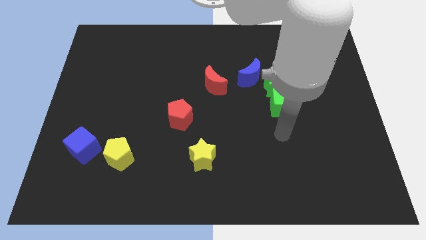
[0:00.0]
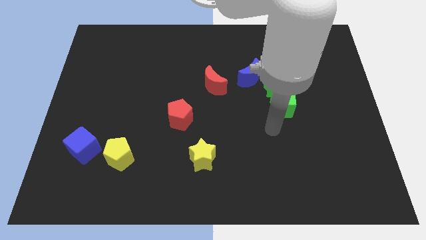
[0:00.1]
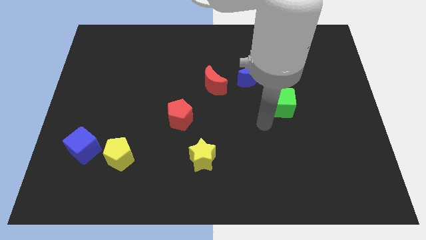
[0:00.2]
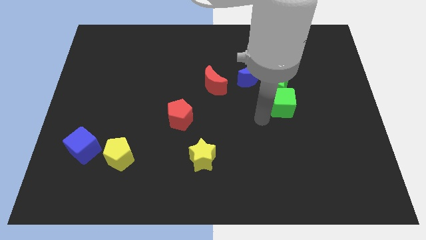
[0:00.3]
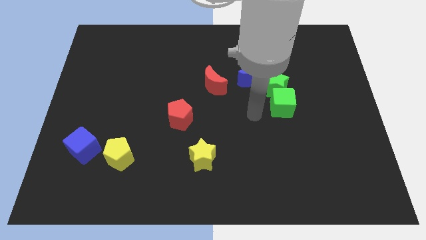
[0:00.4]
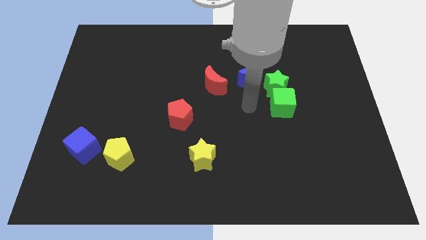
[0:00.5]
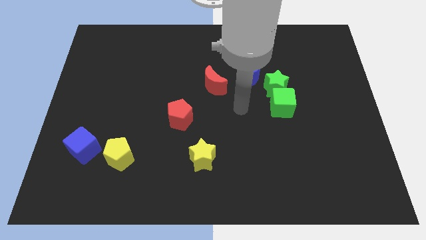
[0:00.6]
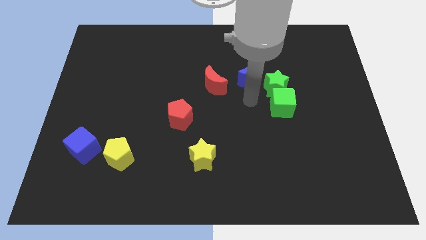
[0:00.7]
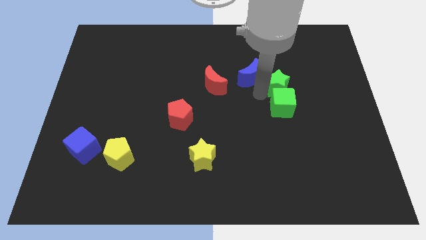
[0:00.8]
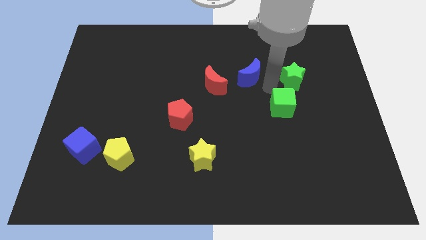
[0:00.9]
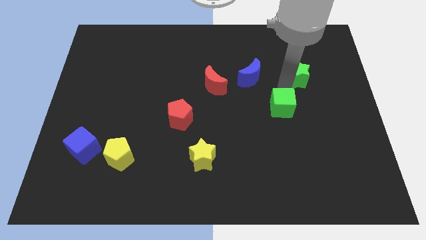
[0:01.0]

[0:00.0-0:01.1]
separate the green cube from the green star

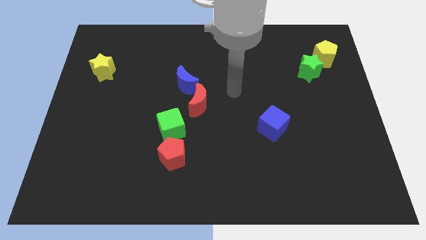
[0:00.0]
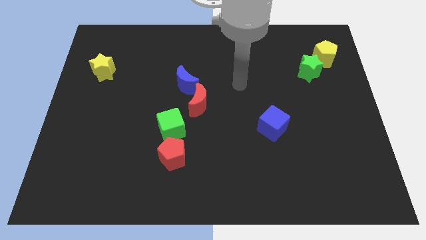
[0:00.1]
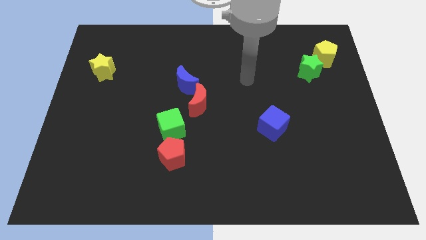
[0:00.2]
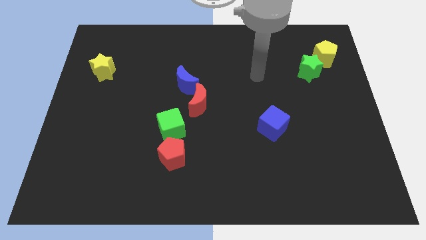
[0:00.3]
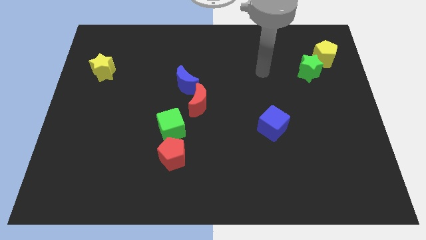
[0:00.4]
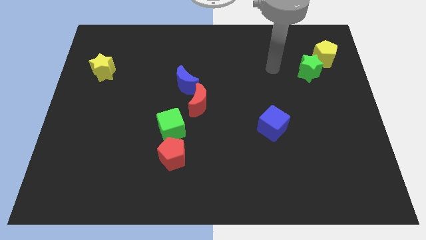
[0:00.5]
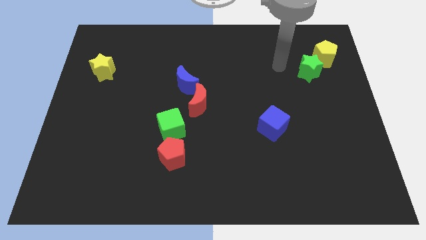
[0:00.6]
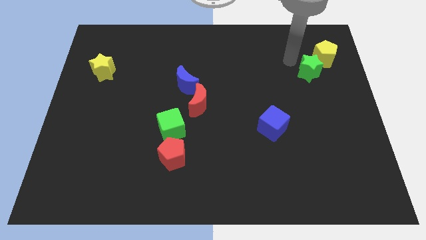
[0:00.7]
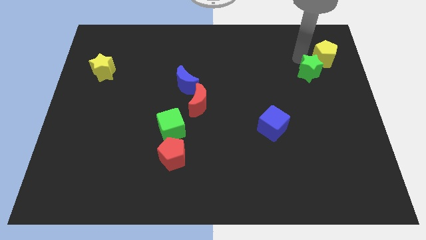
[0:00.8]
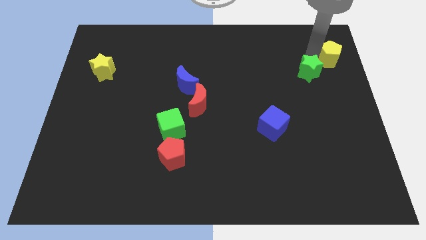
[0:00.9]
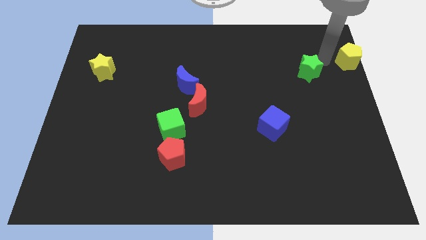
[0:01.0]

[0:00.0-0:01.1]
move the green star away from the yellow pentagon

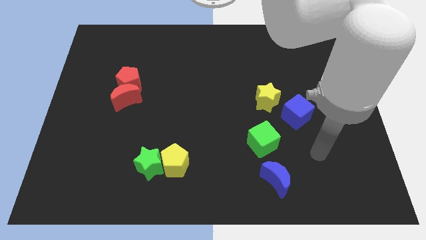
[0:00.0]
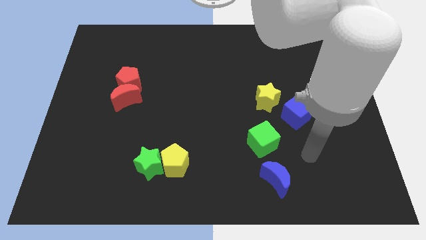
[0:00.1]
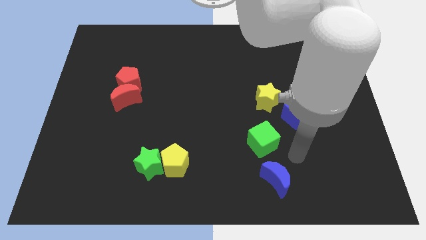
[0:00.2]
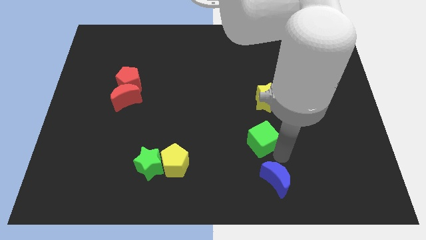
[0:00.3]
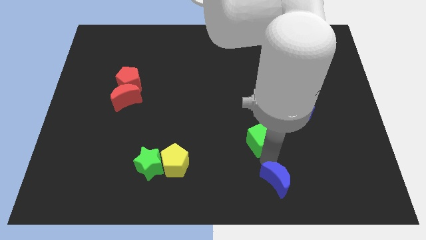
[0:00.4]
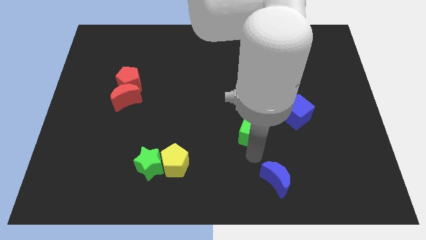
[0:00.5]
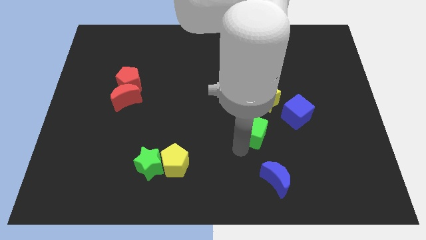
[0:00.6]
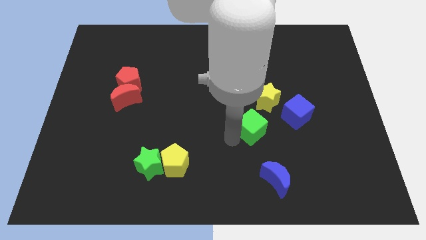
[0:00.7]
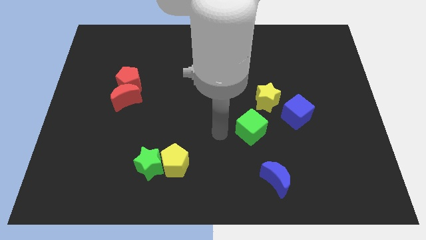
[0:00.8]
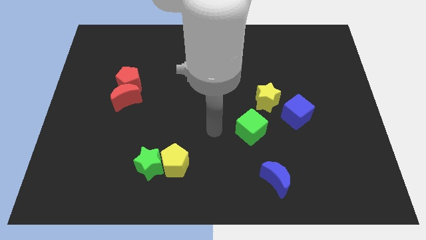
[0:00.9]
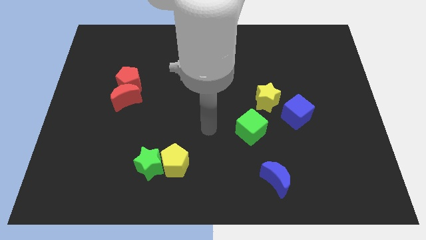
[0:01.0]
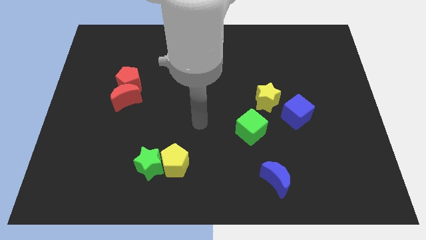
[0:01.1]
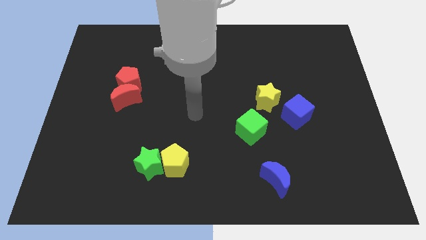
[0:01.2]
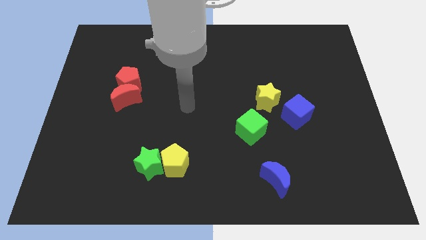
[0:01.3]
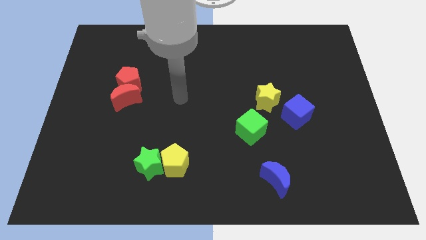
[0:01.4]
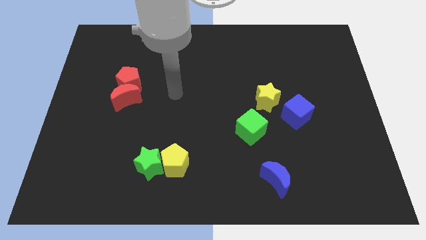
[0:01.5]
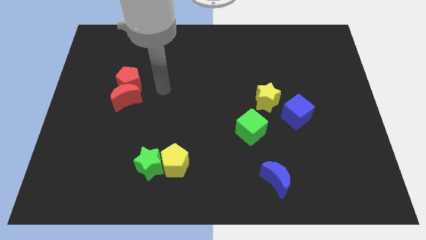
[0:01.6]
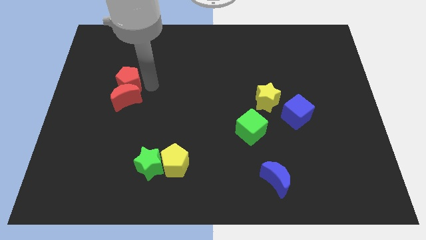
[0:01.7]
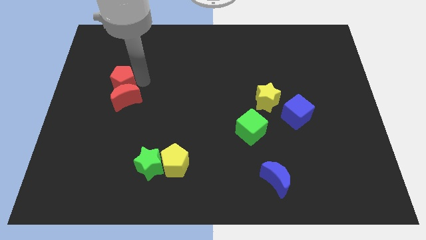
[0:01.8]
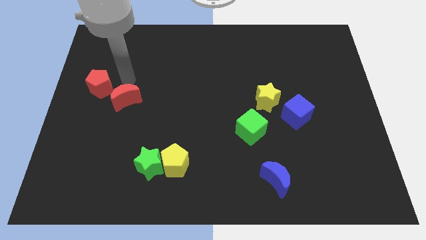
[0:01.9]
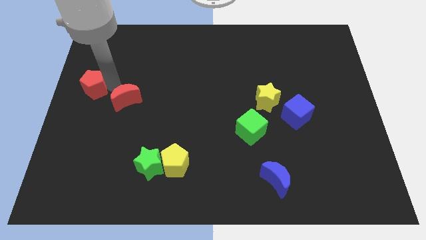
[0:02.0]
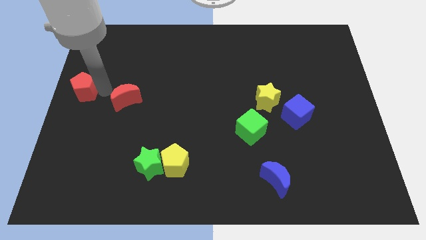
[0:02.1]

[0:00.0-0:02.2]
move the red moon away from the red pentagon

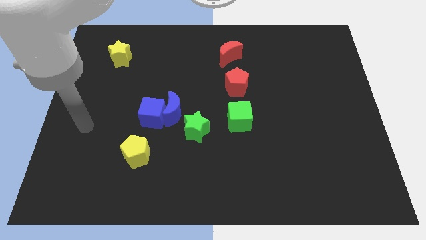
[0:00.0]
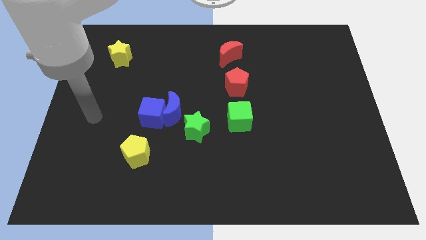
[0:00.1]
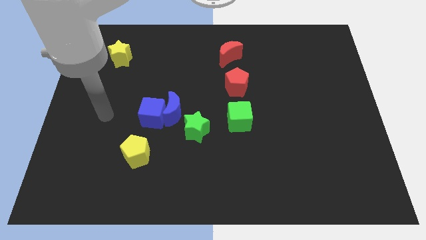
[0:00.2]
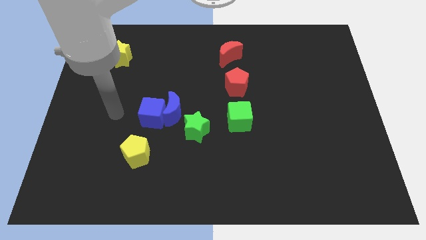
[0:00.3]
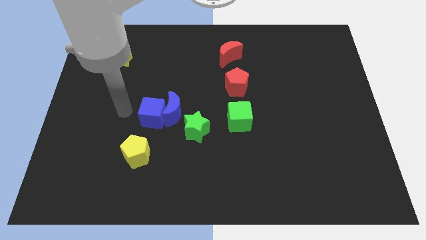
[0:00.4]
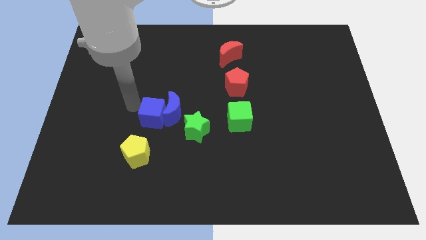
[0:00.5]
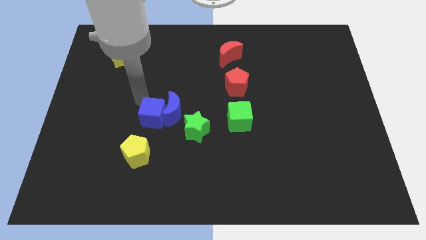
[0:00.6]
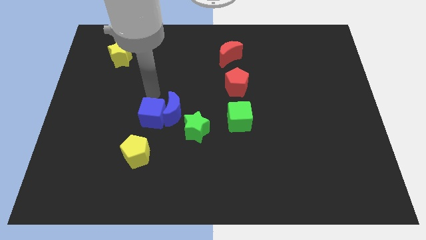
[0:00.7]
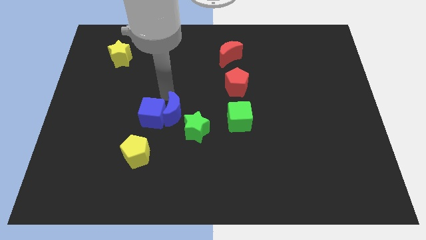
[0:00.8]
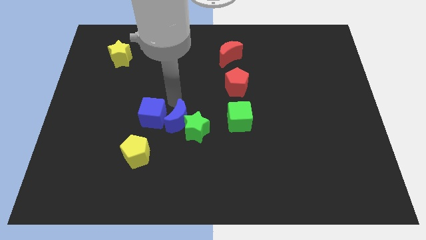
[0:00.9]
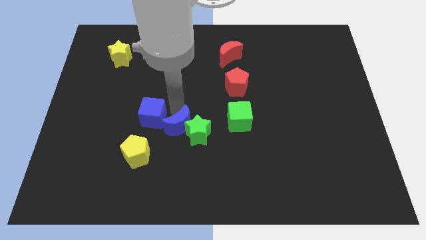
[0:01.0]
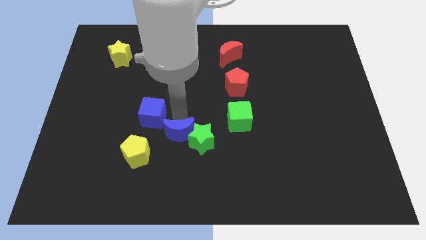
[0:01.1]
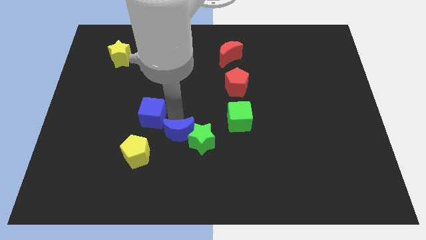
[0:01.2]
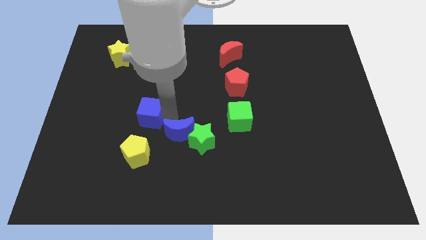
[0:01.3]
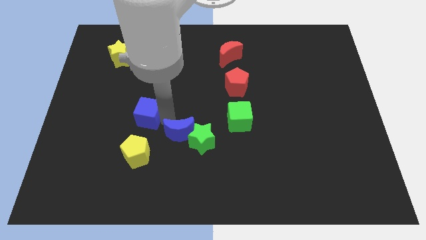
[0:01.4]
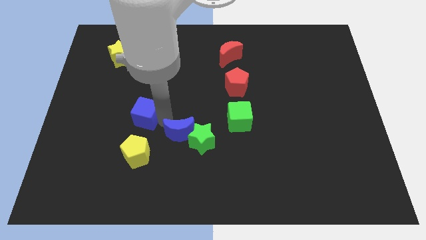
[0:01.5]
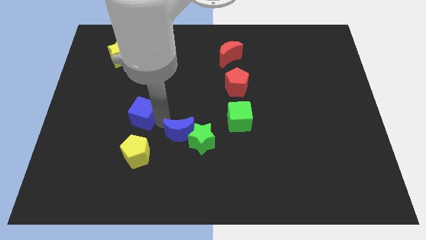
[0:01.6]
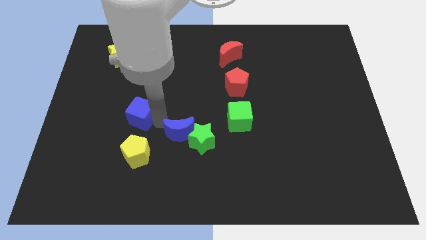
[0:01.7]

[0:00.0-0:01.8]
move the blue cube away from the blue moon

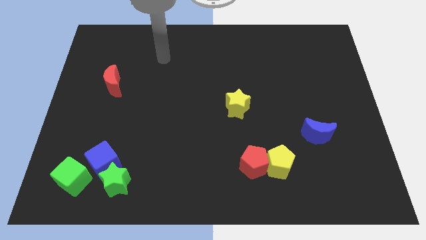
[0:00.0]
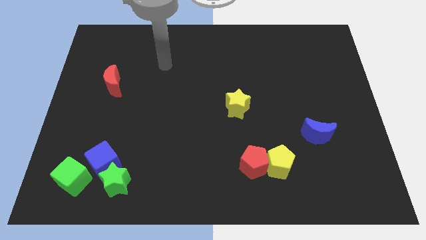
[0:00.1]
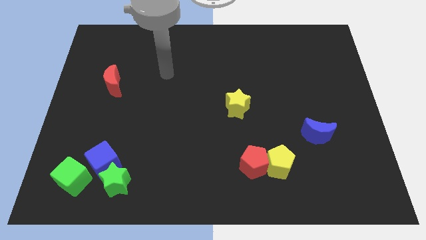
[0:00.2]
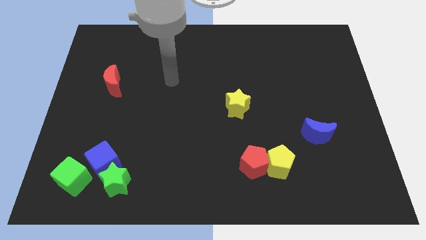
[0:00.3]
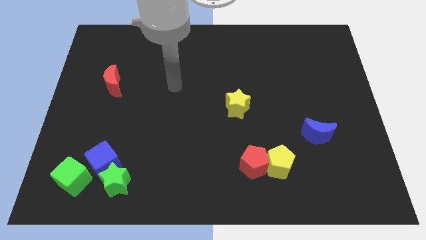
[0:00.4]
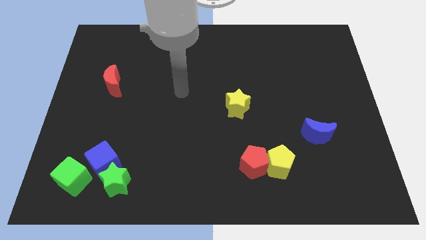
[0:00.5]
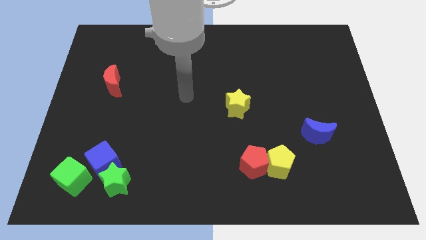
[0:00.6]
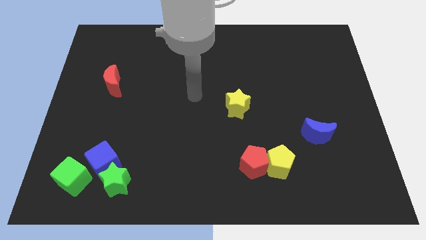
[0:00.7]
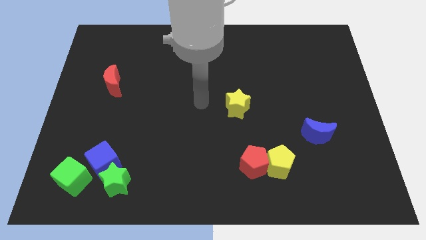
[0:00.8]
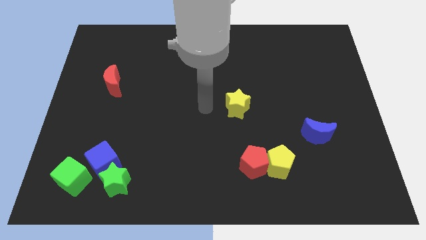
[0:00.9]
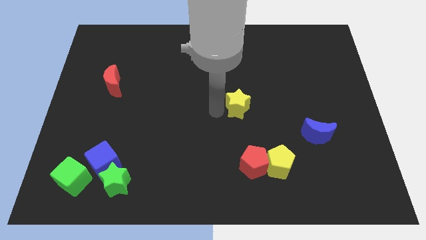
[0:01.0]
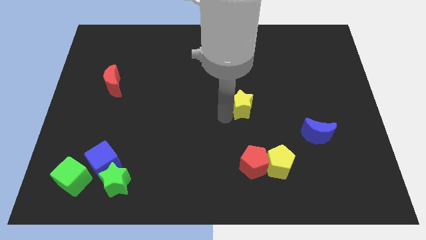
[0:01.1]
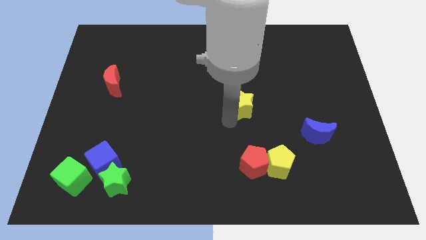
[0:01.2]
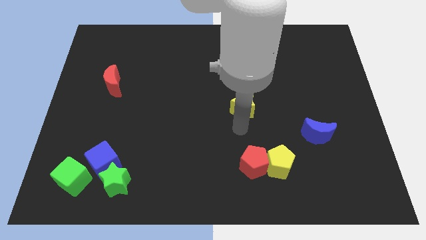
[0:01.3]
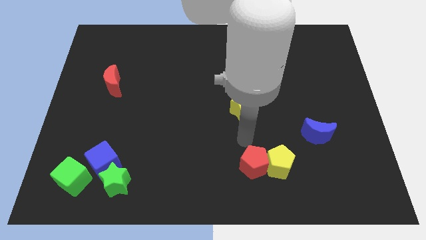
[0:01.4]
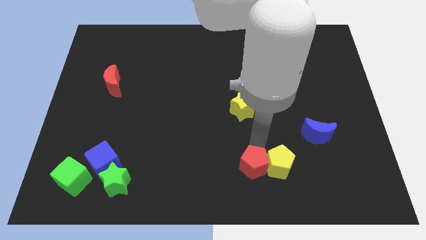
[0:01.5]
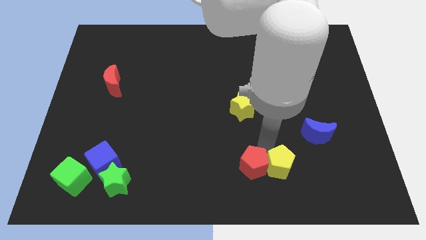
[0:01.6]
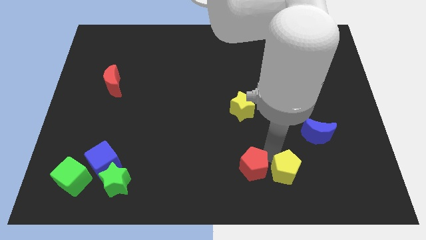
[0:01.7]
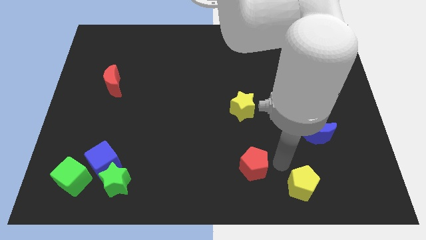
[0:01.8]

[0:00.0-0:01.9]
pull the red pentagon apart from the yellow pentagon

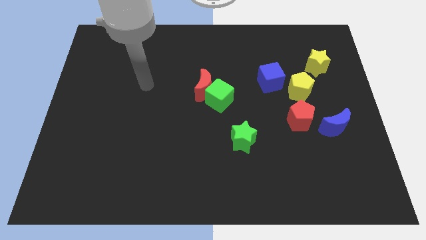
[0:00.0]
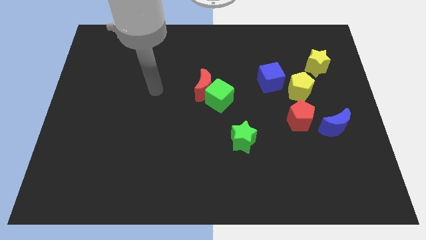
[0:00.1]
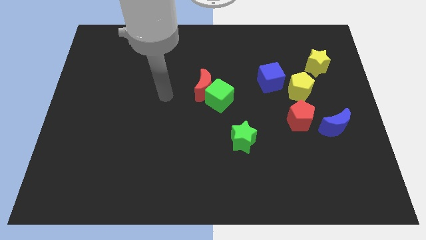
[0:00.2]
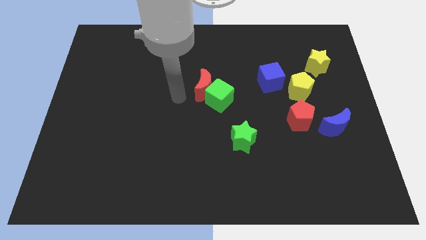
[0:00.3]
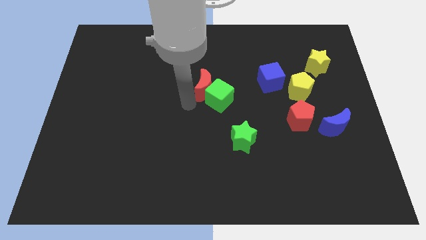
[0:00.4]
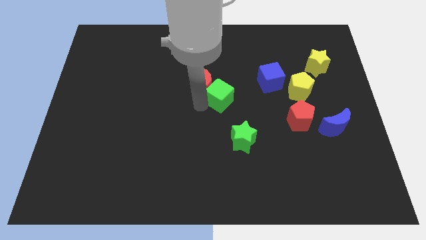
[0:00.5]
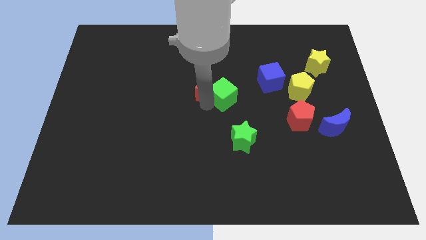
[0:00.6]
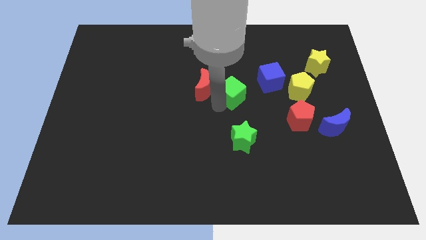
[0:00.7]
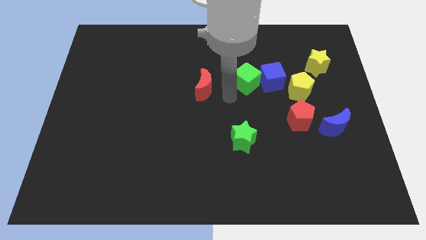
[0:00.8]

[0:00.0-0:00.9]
pull the red moon apart from the green cube

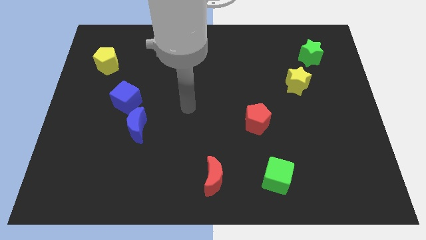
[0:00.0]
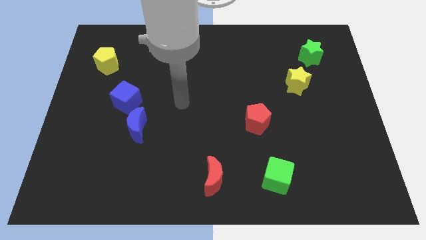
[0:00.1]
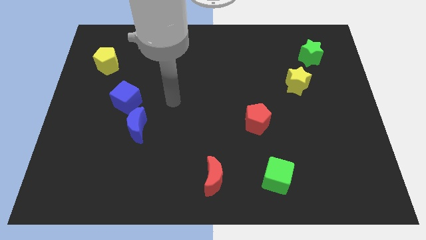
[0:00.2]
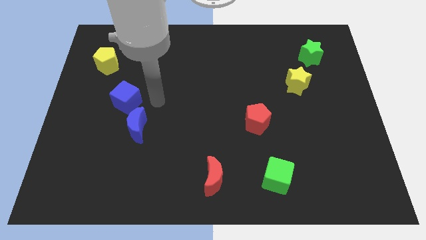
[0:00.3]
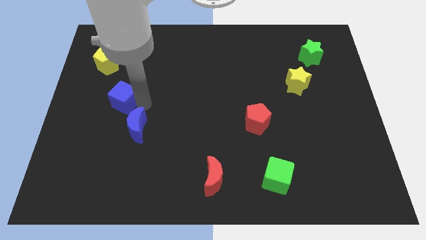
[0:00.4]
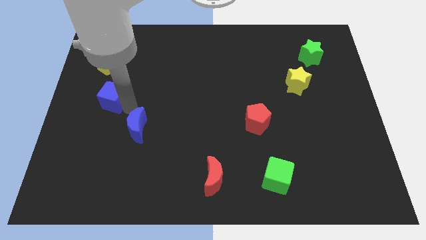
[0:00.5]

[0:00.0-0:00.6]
separate the blue moon from the blue cube
